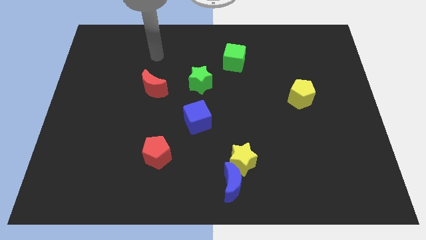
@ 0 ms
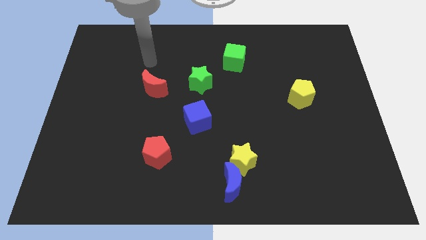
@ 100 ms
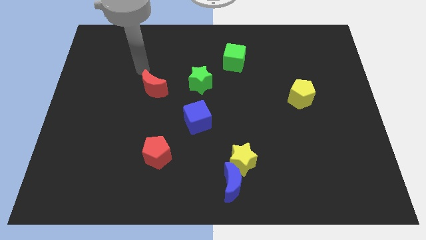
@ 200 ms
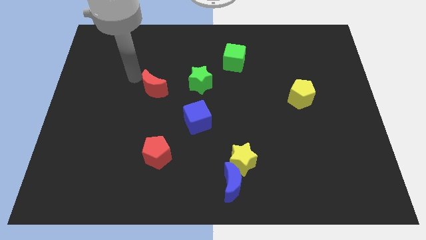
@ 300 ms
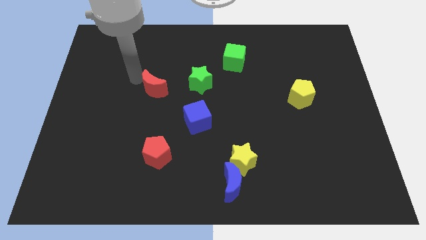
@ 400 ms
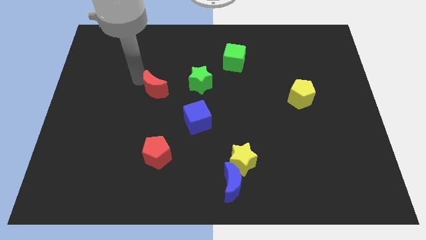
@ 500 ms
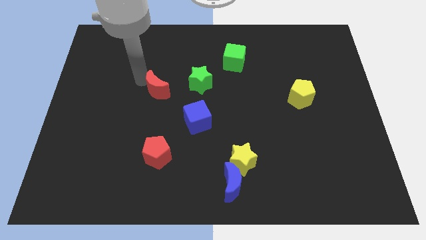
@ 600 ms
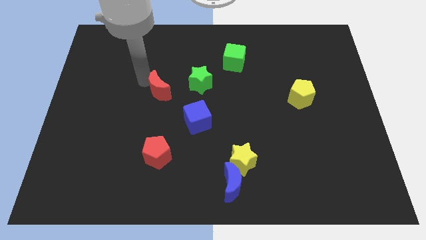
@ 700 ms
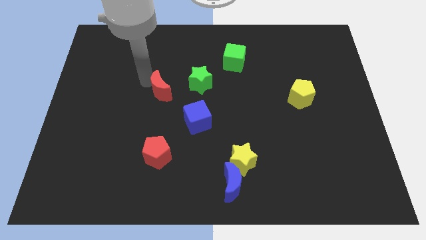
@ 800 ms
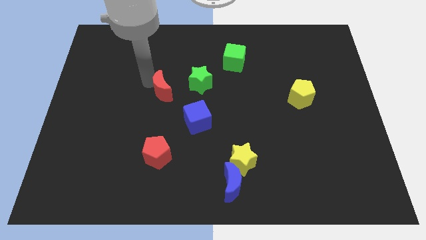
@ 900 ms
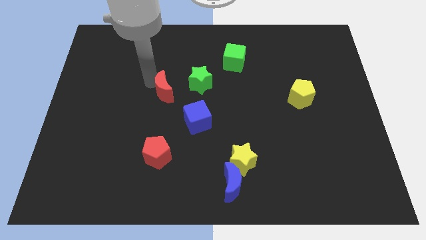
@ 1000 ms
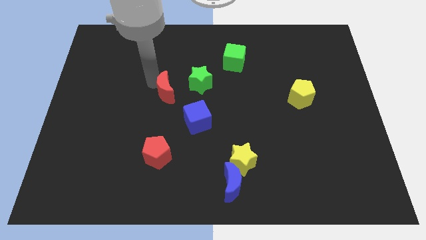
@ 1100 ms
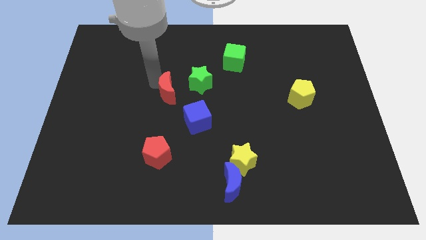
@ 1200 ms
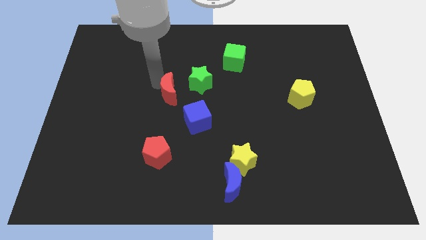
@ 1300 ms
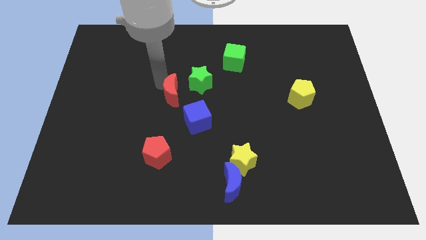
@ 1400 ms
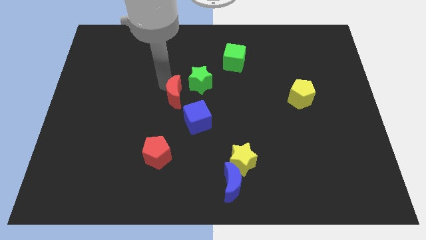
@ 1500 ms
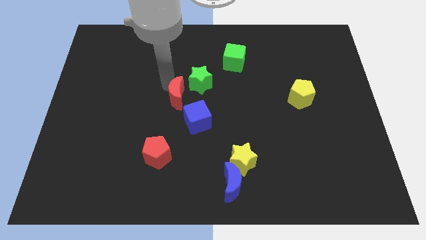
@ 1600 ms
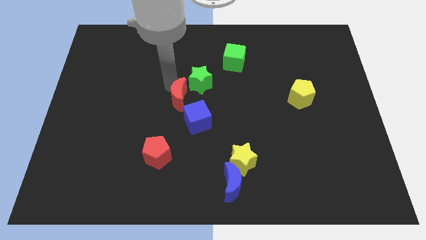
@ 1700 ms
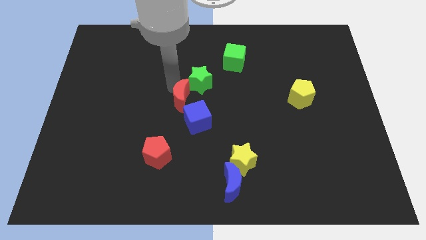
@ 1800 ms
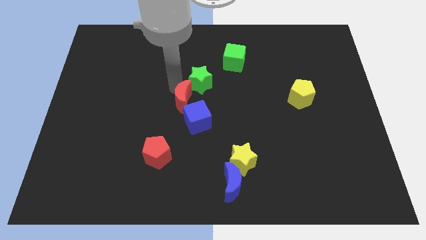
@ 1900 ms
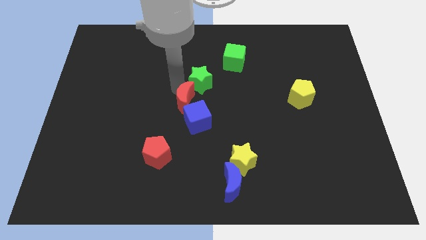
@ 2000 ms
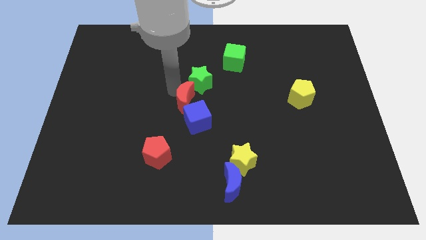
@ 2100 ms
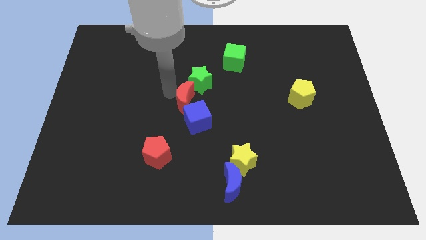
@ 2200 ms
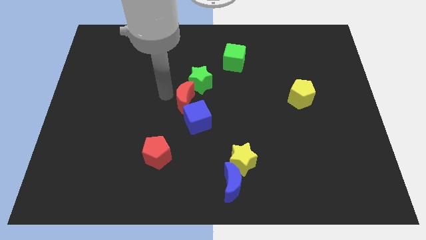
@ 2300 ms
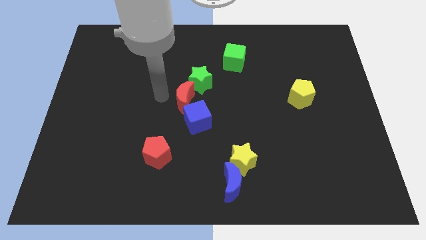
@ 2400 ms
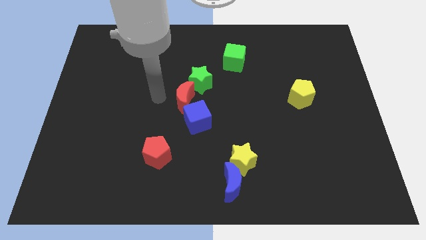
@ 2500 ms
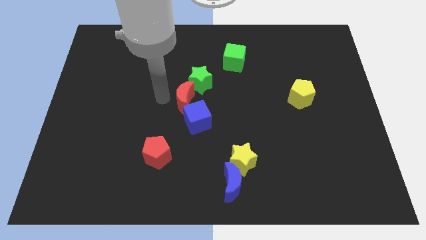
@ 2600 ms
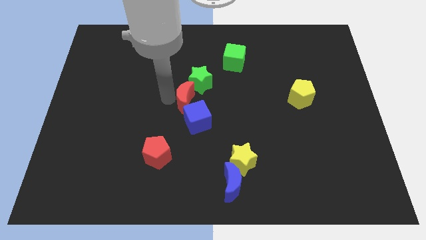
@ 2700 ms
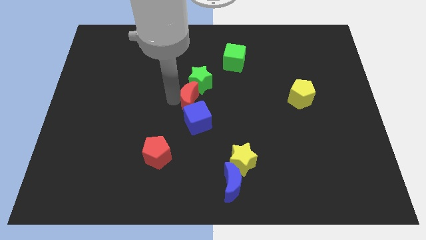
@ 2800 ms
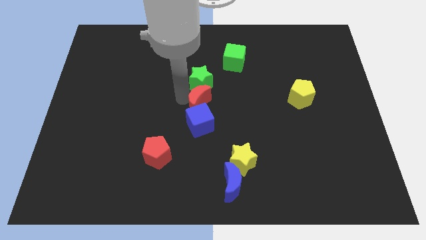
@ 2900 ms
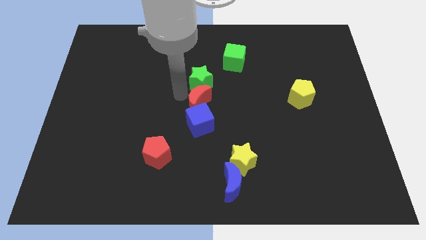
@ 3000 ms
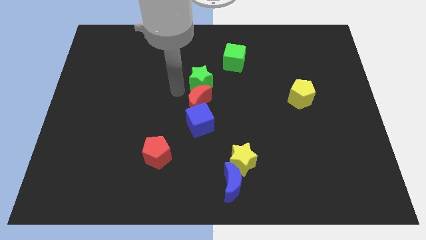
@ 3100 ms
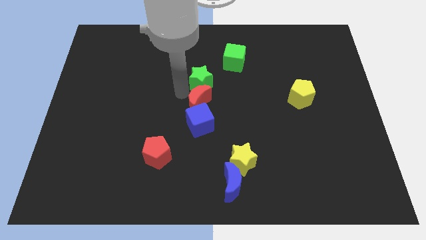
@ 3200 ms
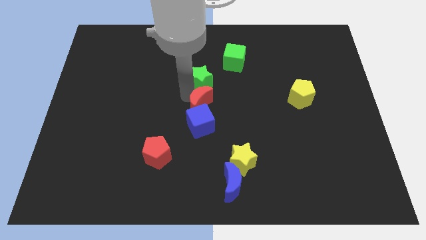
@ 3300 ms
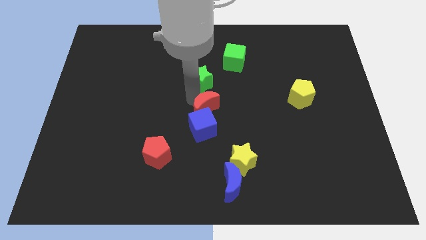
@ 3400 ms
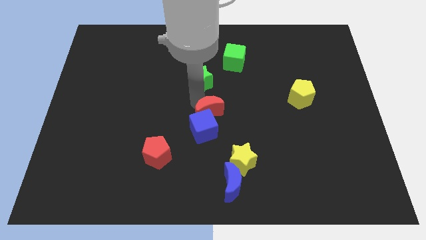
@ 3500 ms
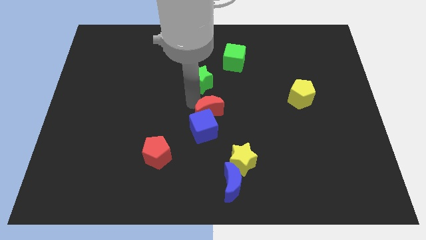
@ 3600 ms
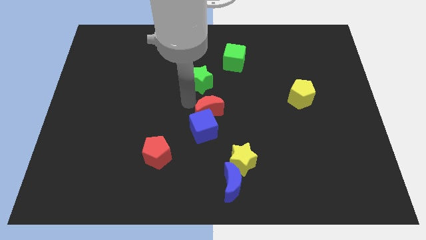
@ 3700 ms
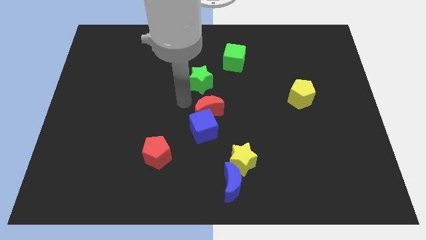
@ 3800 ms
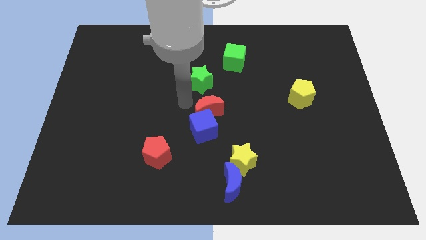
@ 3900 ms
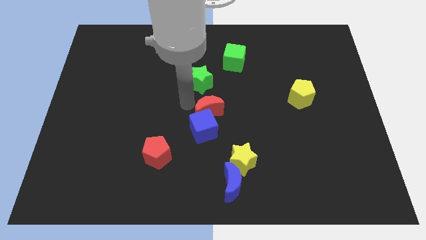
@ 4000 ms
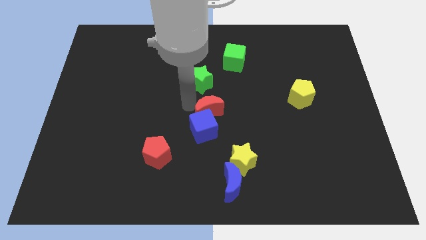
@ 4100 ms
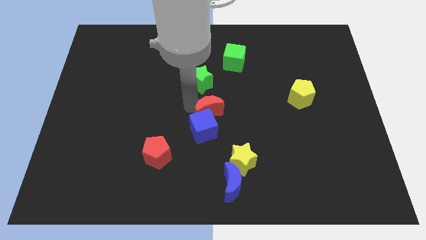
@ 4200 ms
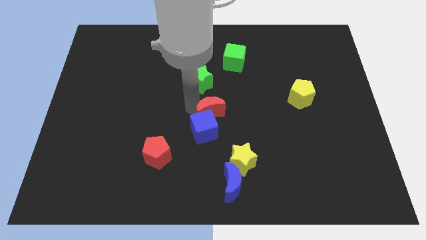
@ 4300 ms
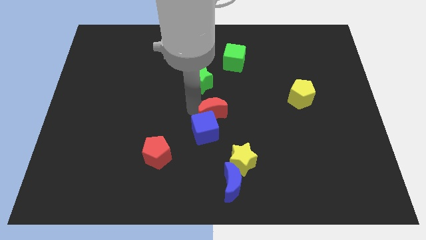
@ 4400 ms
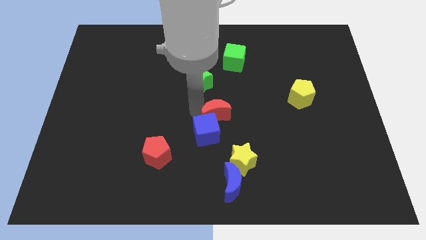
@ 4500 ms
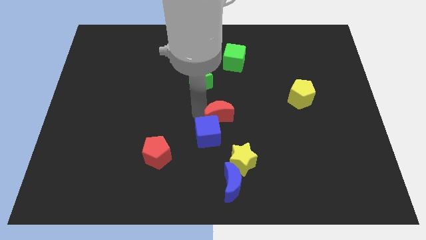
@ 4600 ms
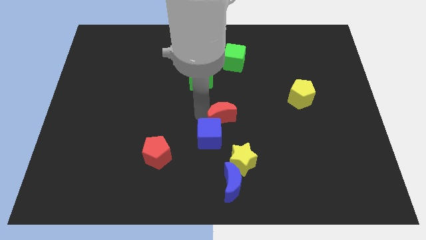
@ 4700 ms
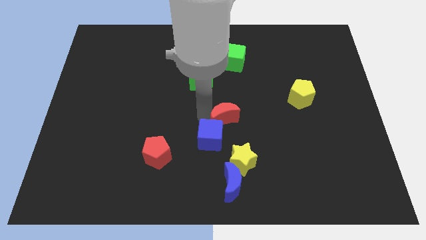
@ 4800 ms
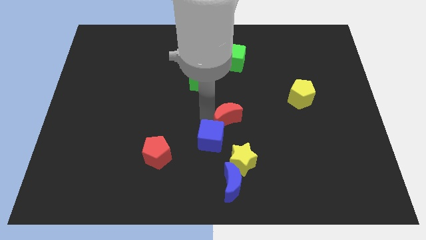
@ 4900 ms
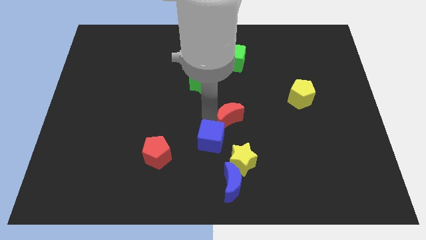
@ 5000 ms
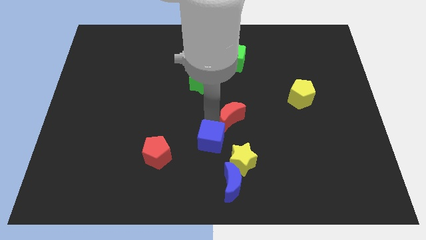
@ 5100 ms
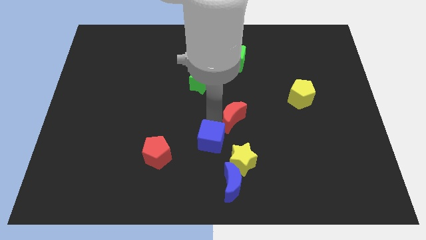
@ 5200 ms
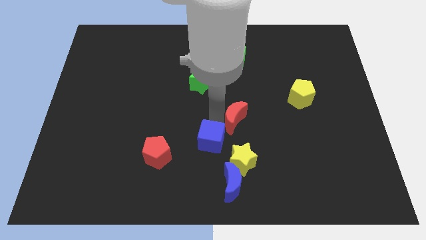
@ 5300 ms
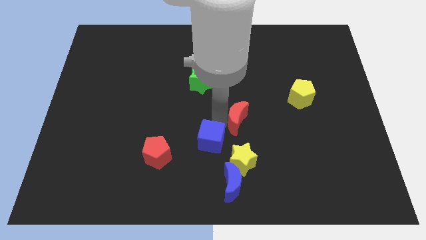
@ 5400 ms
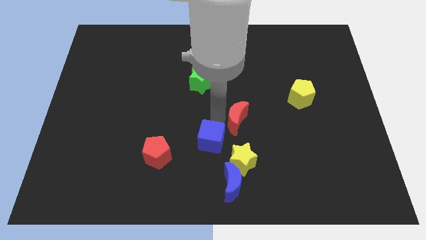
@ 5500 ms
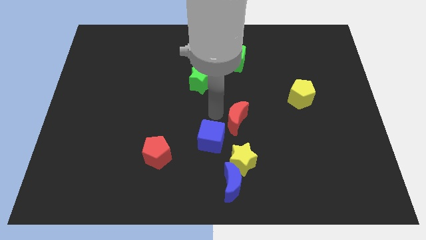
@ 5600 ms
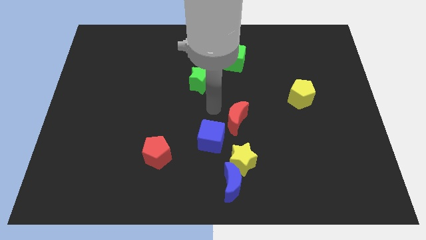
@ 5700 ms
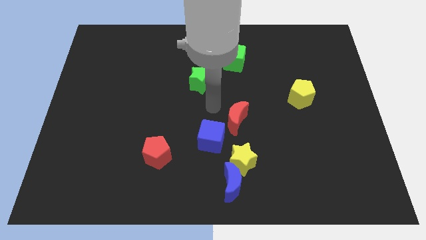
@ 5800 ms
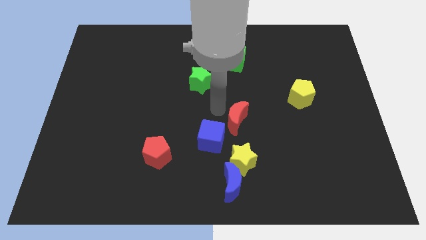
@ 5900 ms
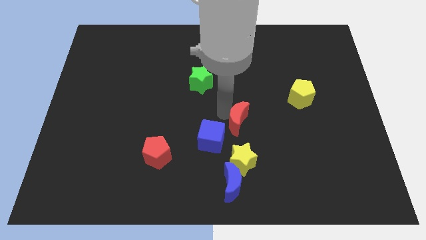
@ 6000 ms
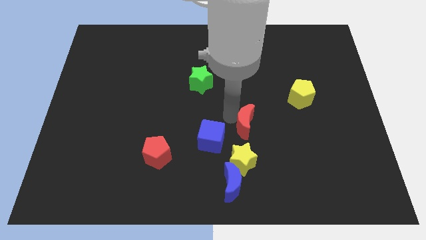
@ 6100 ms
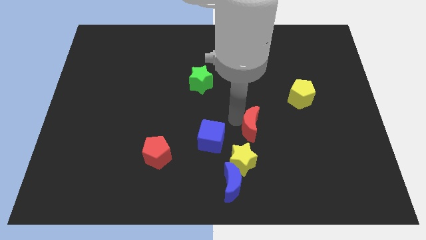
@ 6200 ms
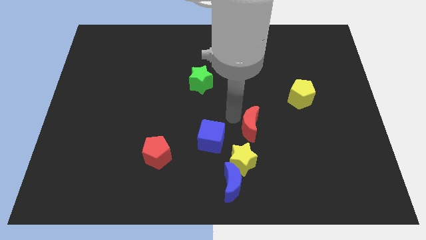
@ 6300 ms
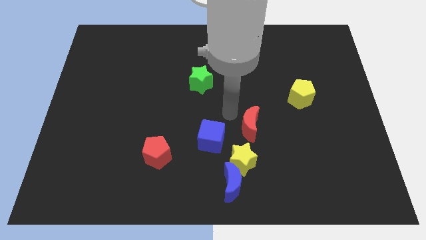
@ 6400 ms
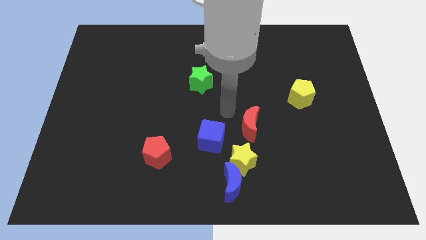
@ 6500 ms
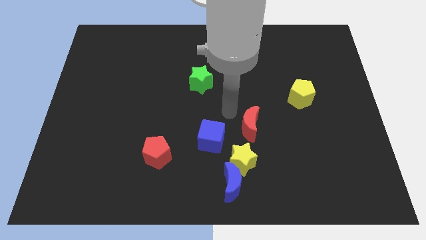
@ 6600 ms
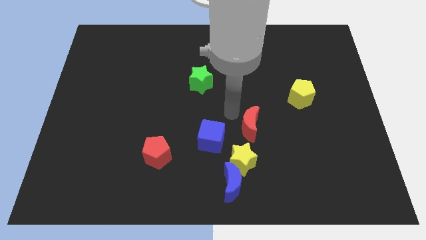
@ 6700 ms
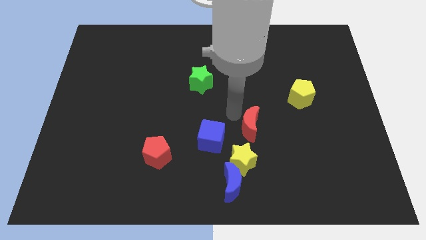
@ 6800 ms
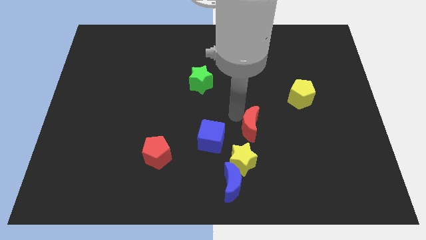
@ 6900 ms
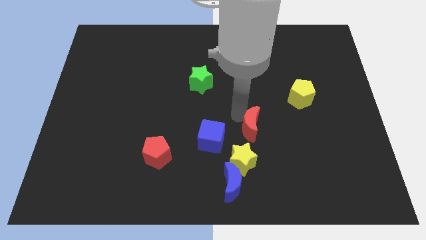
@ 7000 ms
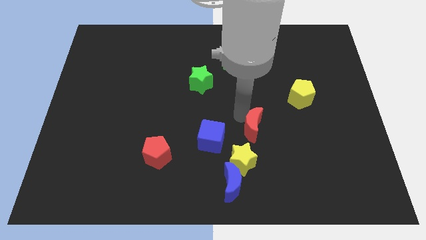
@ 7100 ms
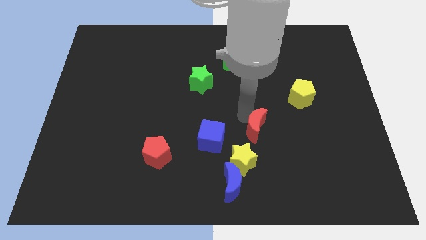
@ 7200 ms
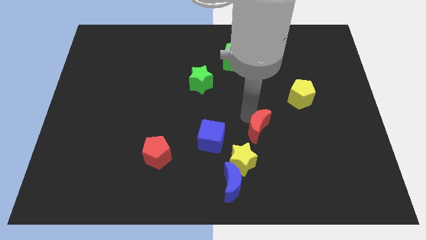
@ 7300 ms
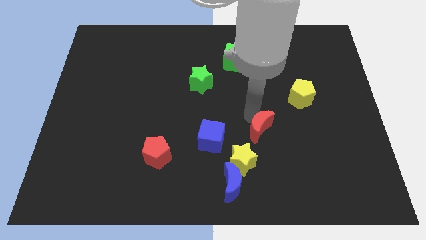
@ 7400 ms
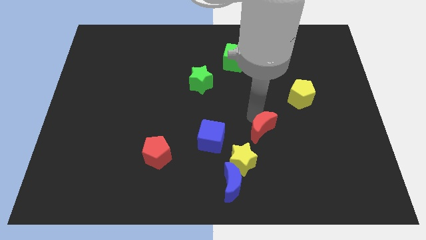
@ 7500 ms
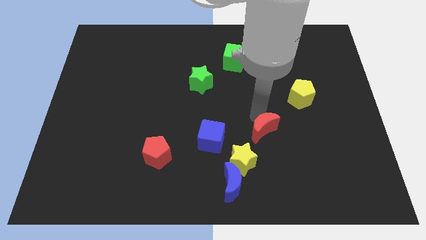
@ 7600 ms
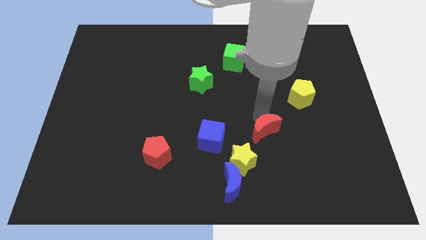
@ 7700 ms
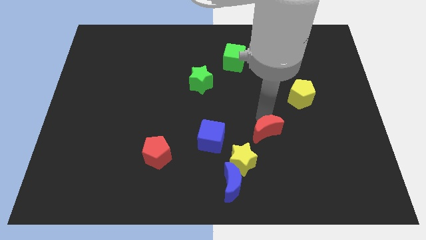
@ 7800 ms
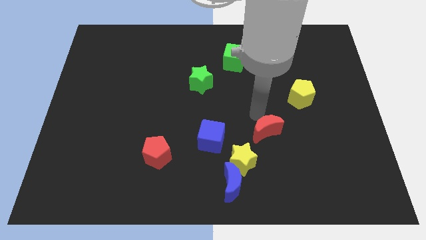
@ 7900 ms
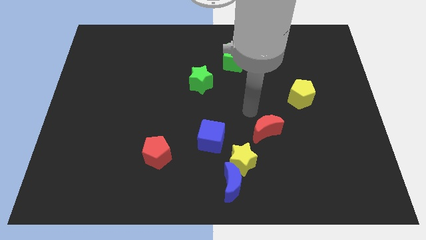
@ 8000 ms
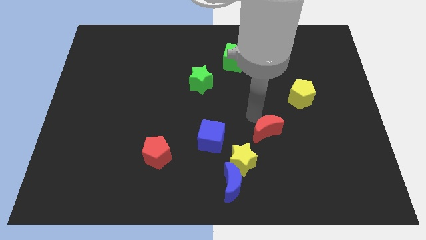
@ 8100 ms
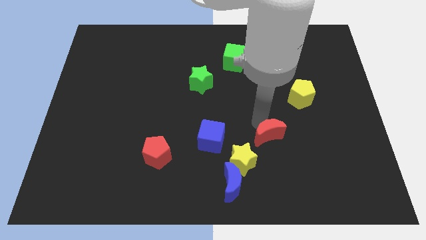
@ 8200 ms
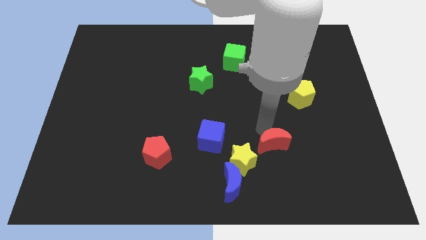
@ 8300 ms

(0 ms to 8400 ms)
put the red moon right of the yellow star
